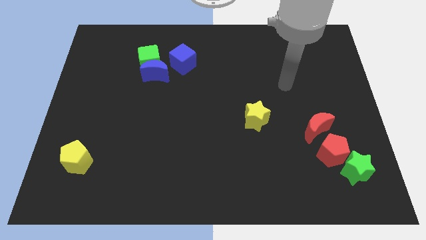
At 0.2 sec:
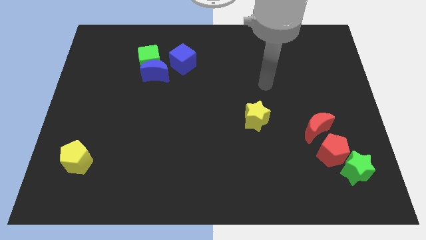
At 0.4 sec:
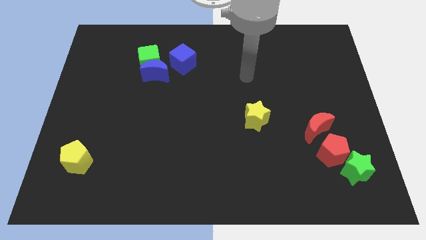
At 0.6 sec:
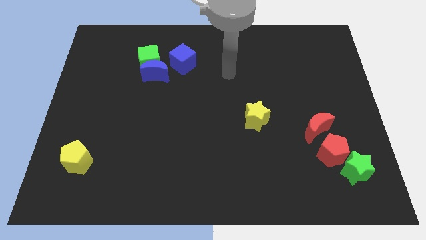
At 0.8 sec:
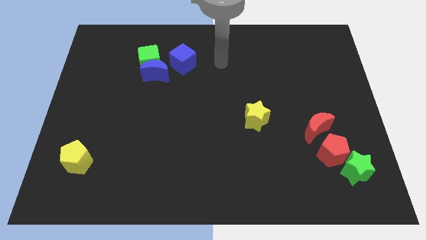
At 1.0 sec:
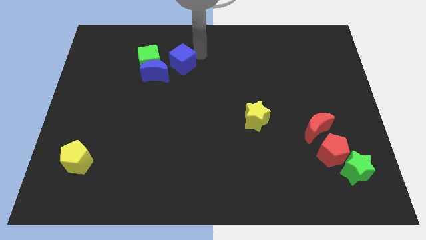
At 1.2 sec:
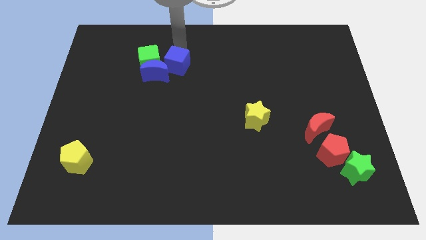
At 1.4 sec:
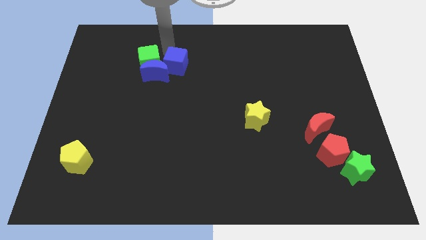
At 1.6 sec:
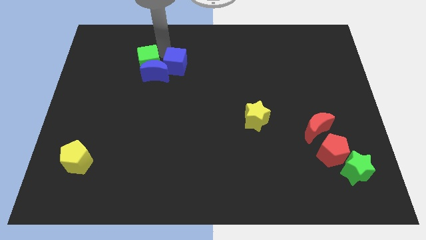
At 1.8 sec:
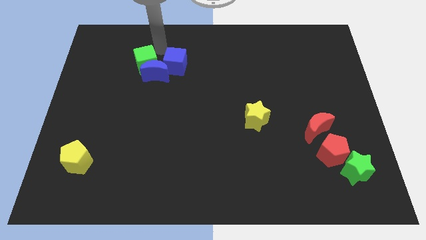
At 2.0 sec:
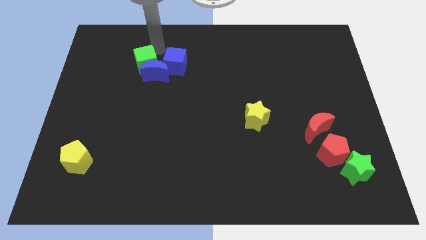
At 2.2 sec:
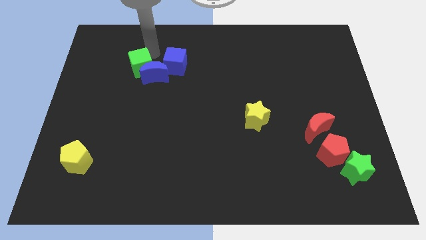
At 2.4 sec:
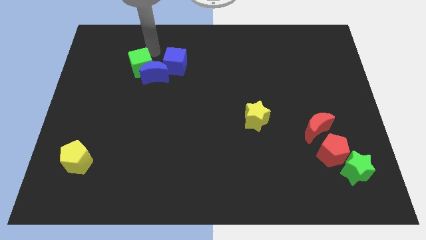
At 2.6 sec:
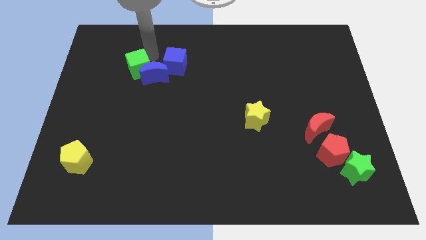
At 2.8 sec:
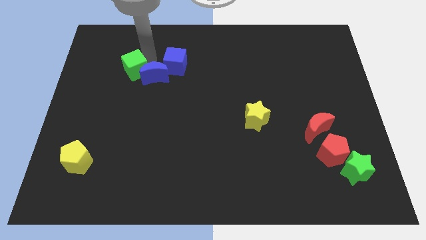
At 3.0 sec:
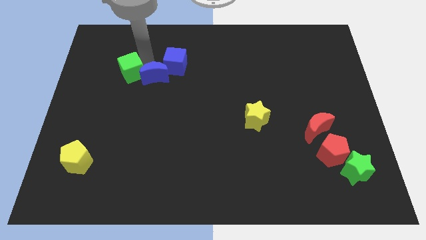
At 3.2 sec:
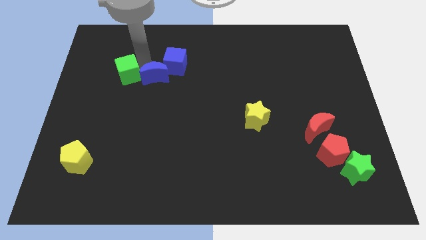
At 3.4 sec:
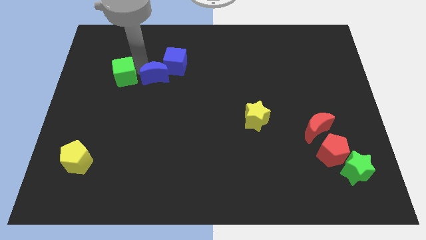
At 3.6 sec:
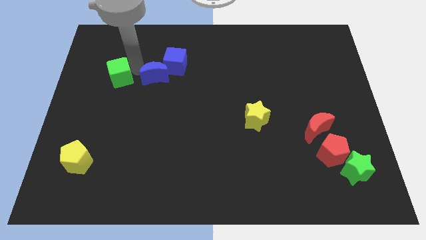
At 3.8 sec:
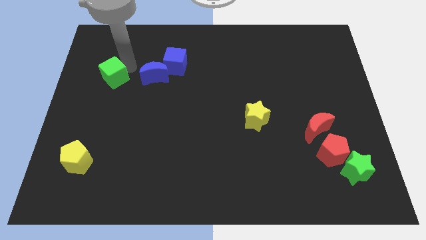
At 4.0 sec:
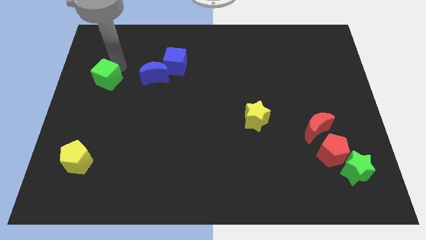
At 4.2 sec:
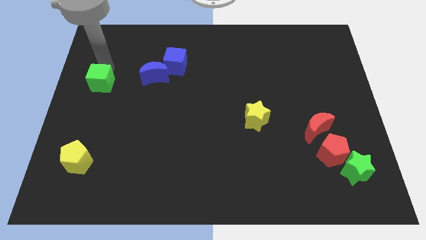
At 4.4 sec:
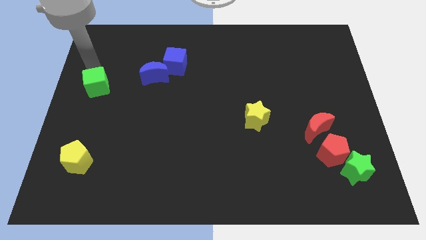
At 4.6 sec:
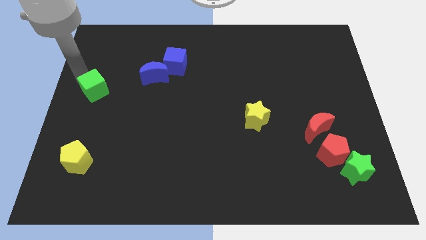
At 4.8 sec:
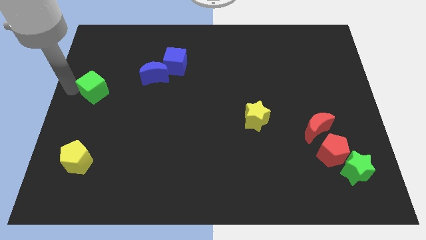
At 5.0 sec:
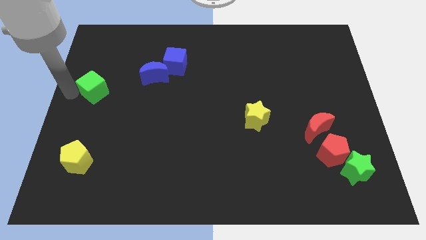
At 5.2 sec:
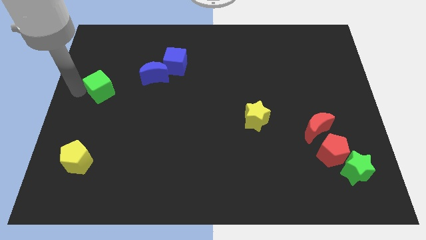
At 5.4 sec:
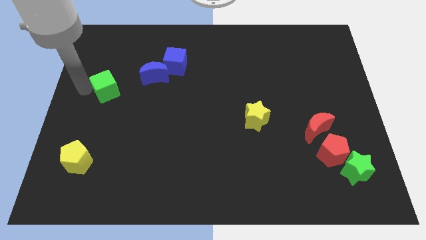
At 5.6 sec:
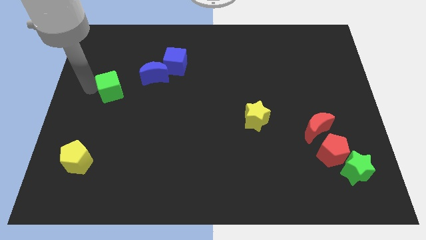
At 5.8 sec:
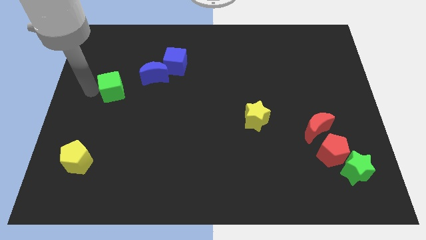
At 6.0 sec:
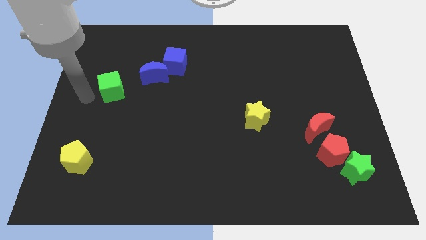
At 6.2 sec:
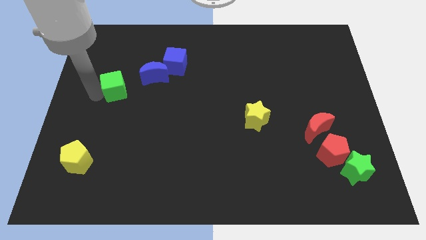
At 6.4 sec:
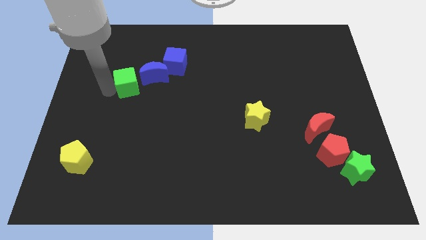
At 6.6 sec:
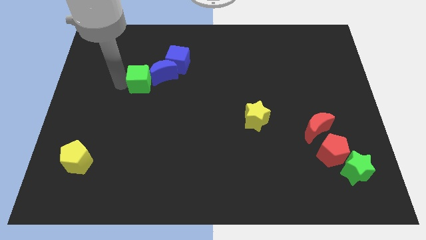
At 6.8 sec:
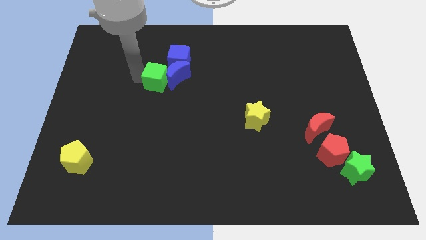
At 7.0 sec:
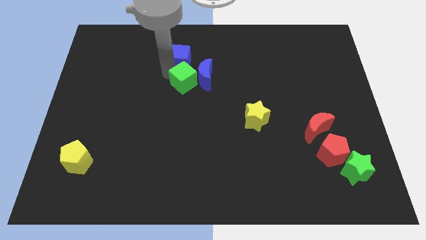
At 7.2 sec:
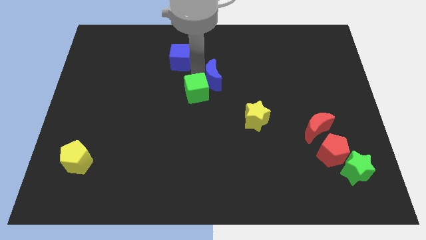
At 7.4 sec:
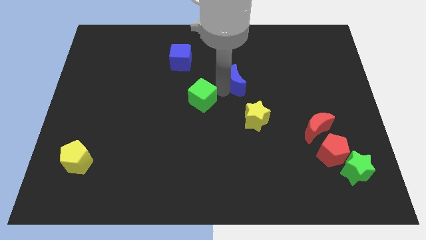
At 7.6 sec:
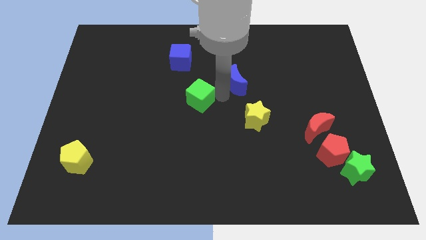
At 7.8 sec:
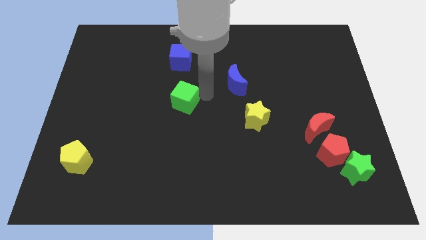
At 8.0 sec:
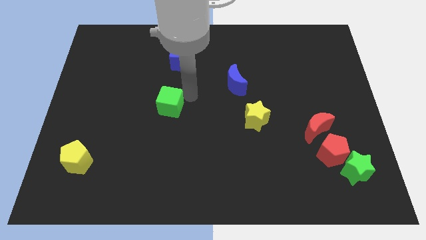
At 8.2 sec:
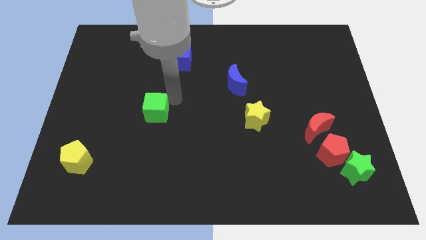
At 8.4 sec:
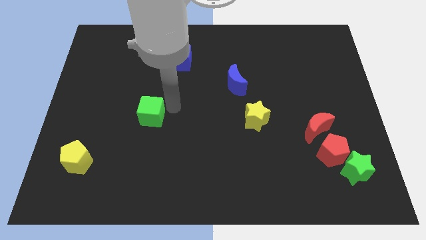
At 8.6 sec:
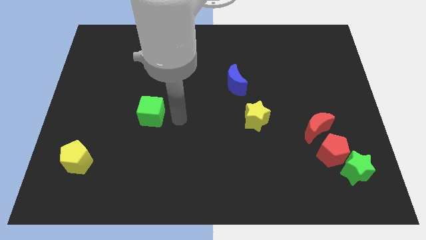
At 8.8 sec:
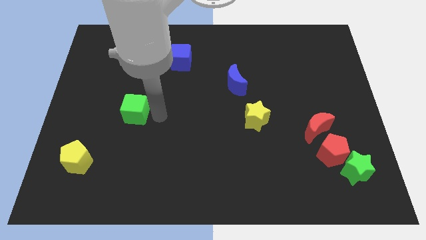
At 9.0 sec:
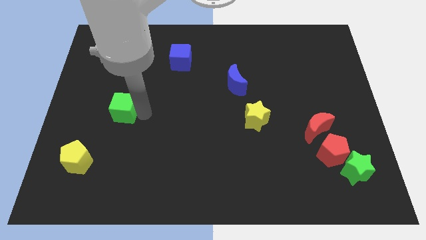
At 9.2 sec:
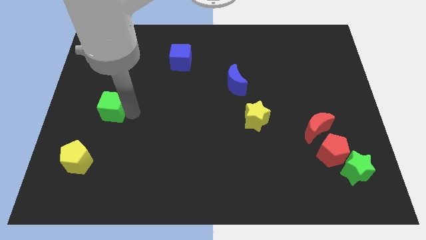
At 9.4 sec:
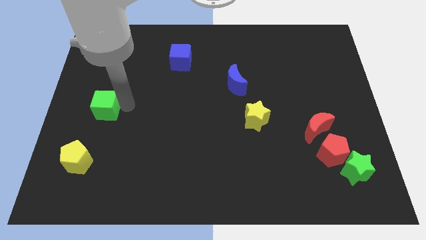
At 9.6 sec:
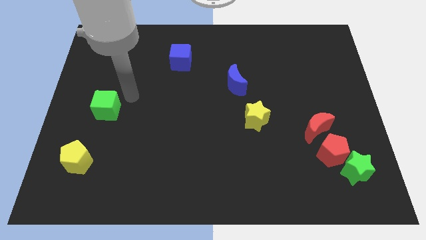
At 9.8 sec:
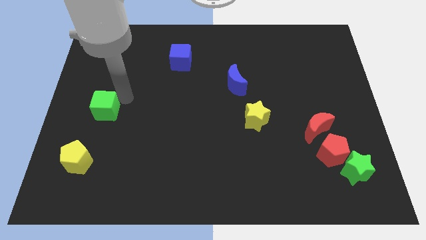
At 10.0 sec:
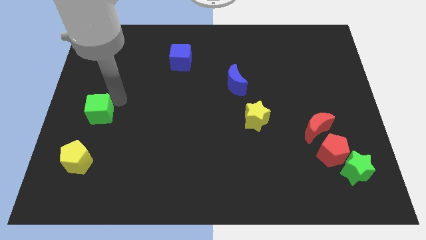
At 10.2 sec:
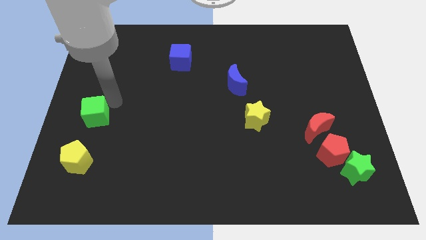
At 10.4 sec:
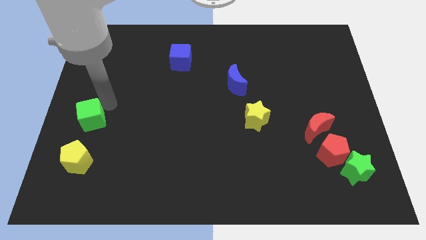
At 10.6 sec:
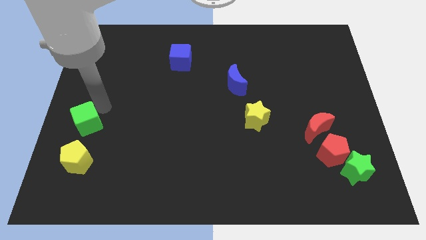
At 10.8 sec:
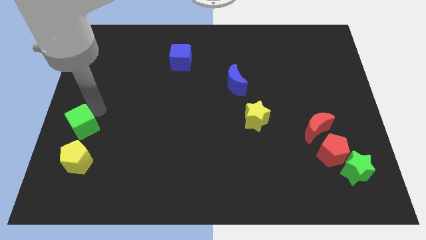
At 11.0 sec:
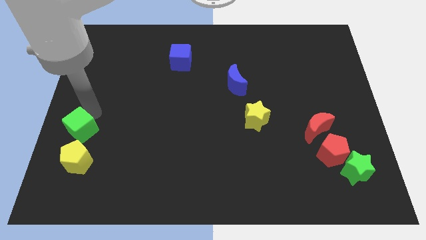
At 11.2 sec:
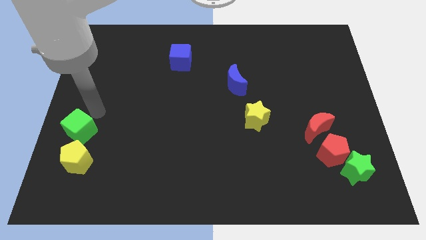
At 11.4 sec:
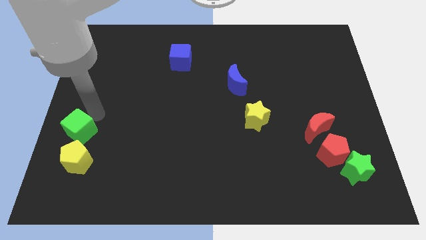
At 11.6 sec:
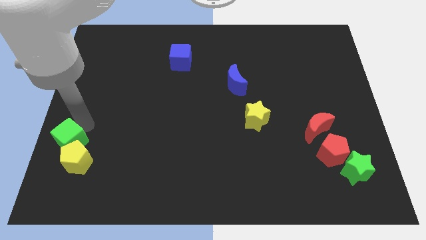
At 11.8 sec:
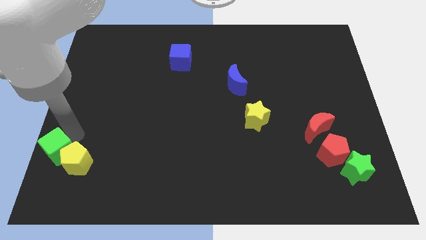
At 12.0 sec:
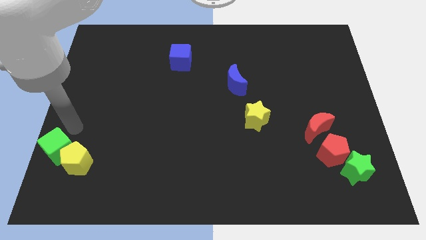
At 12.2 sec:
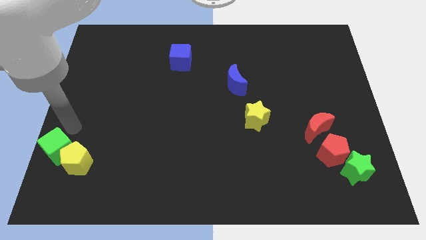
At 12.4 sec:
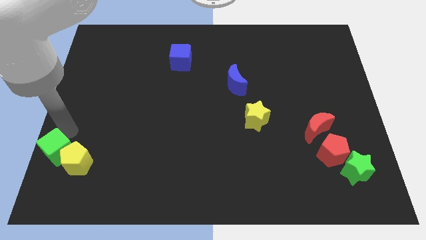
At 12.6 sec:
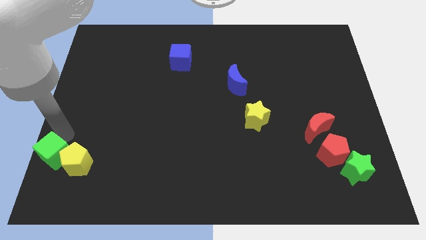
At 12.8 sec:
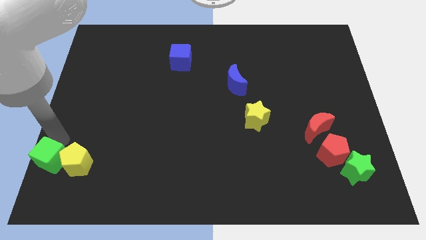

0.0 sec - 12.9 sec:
put the green cube to the bottom left

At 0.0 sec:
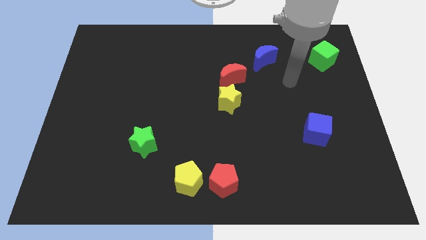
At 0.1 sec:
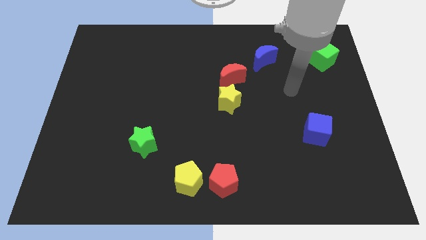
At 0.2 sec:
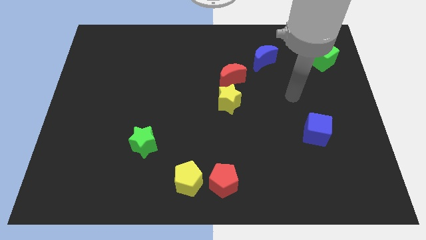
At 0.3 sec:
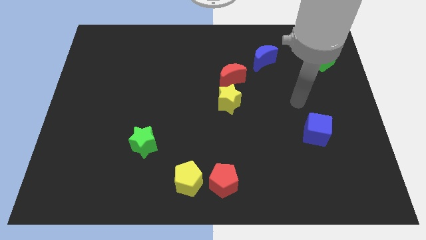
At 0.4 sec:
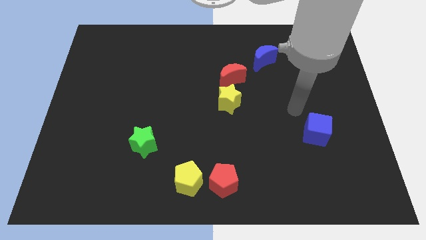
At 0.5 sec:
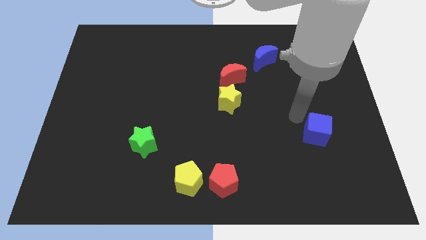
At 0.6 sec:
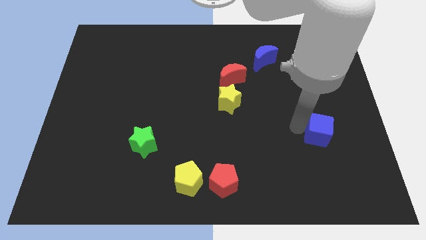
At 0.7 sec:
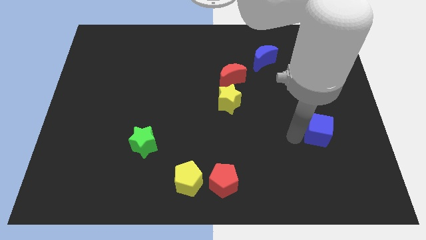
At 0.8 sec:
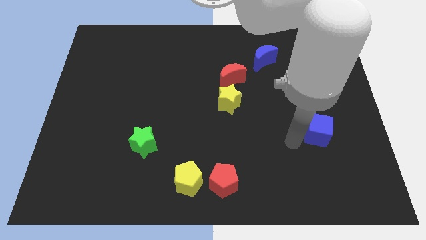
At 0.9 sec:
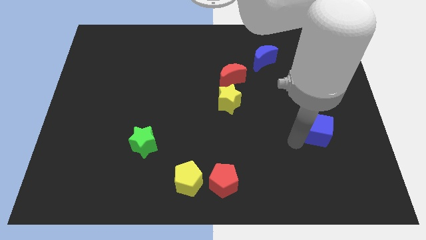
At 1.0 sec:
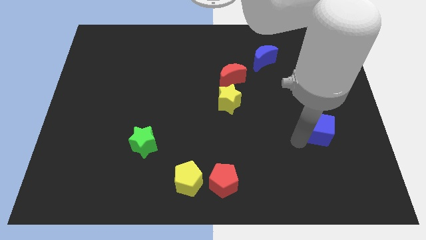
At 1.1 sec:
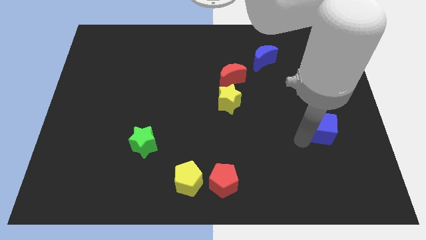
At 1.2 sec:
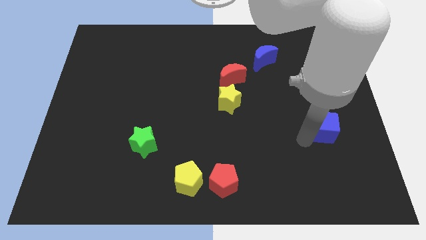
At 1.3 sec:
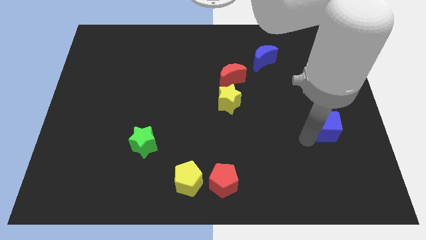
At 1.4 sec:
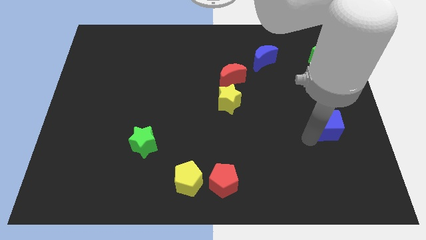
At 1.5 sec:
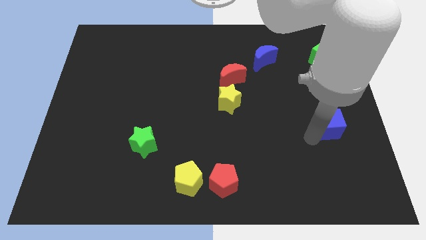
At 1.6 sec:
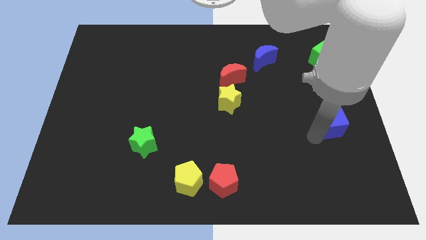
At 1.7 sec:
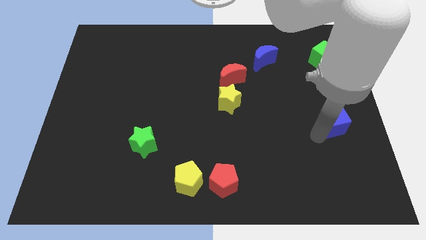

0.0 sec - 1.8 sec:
push the blue cube to the center right
